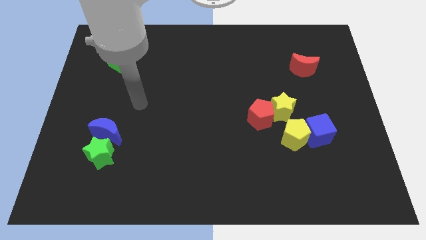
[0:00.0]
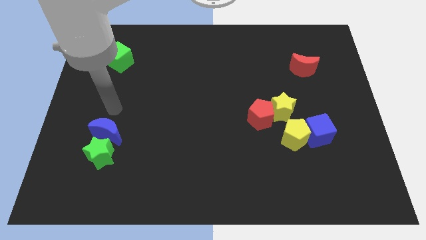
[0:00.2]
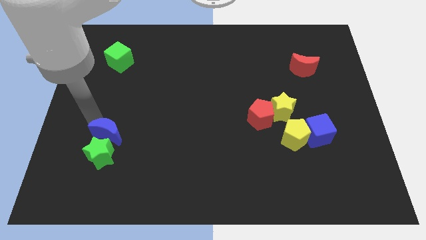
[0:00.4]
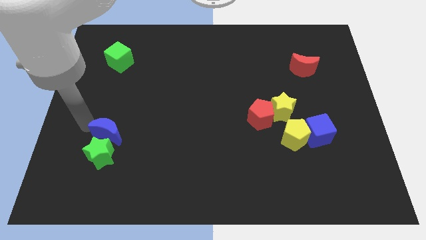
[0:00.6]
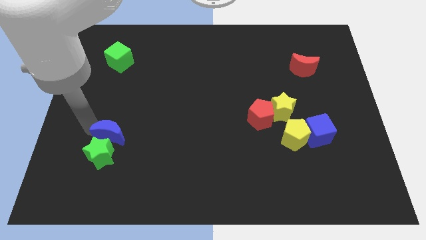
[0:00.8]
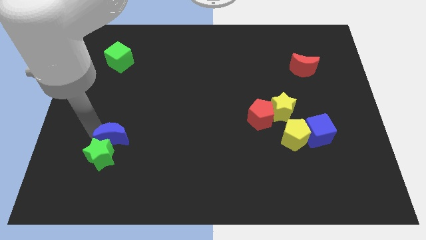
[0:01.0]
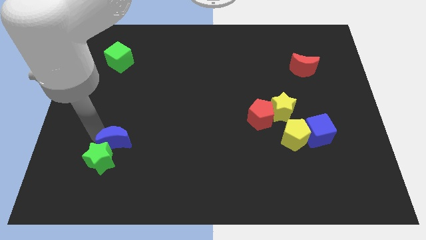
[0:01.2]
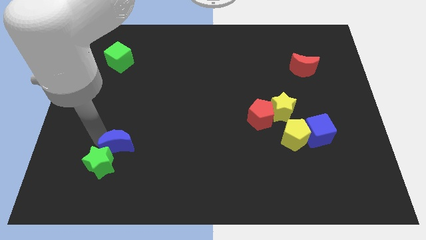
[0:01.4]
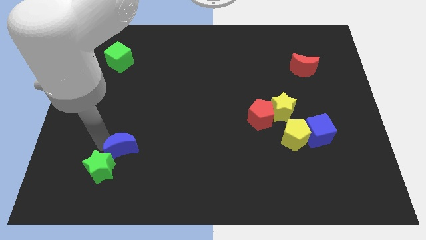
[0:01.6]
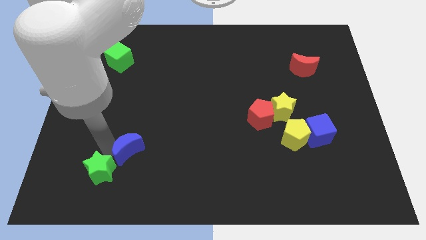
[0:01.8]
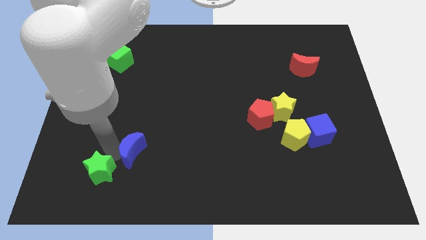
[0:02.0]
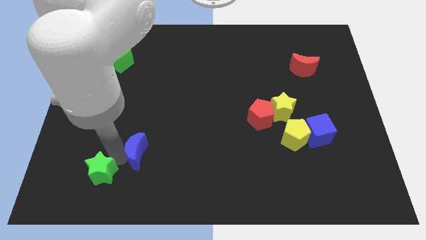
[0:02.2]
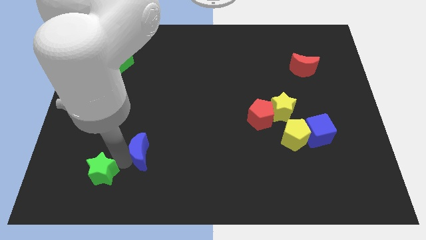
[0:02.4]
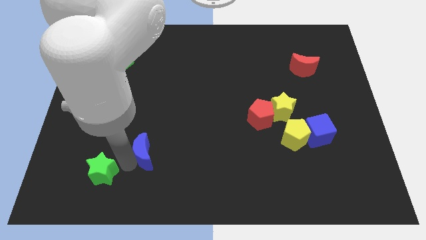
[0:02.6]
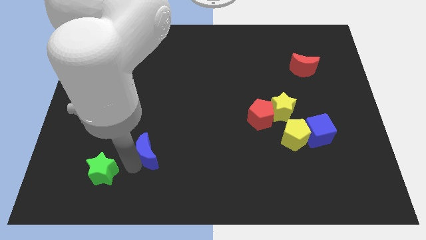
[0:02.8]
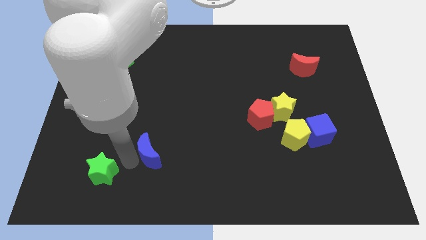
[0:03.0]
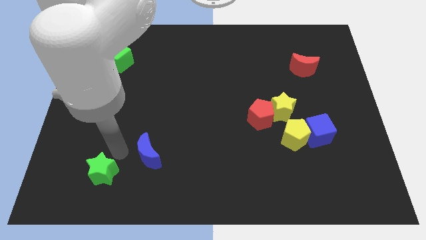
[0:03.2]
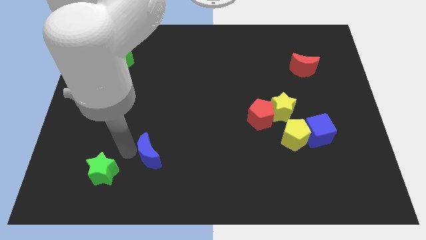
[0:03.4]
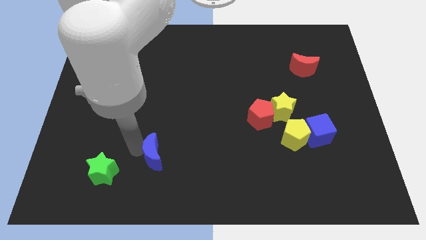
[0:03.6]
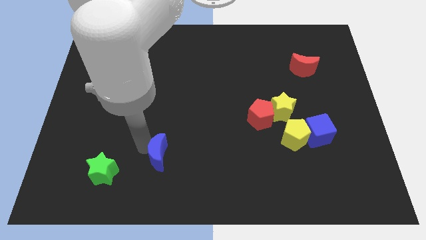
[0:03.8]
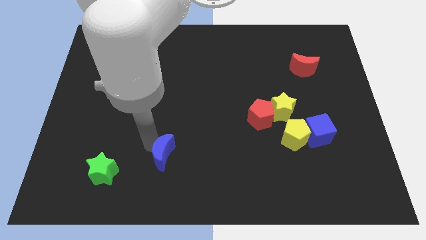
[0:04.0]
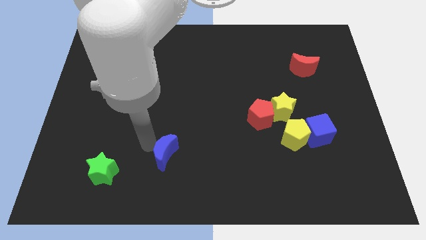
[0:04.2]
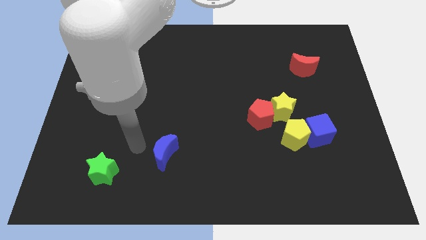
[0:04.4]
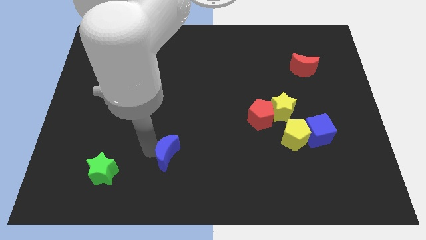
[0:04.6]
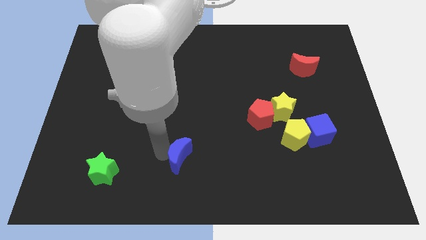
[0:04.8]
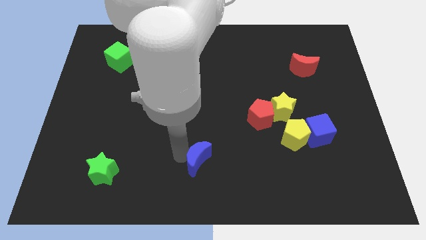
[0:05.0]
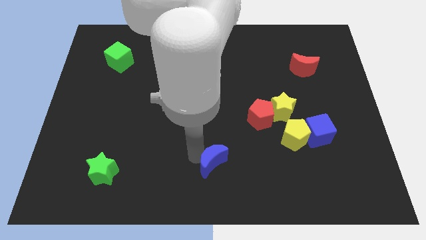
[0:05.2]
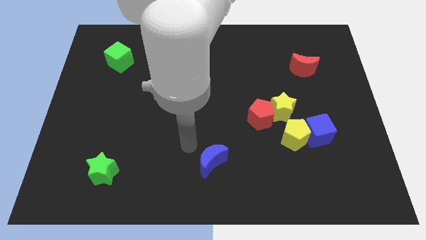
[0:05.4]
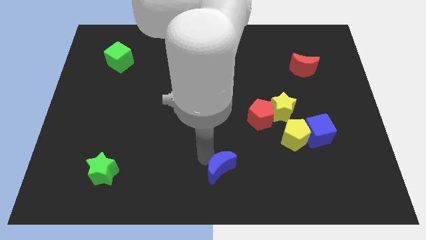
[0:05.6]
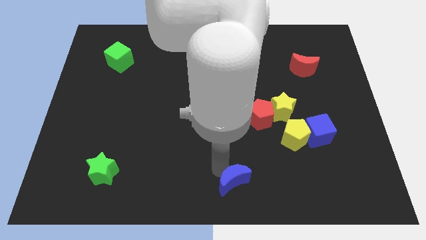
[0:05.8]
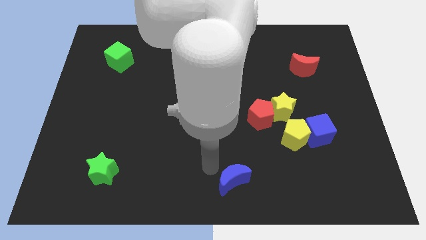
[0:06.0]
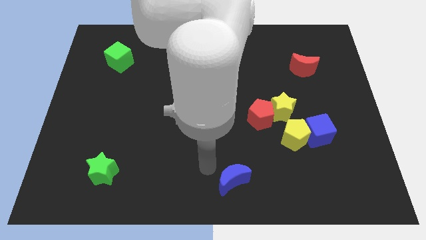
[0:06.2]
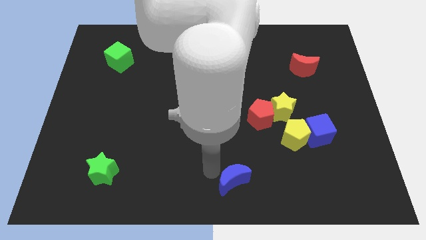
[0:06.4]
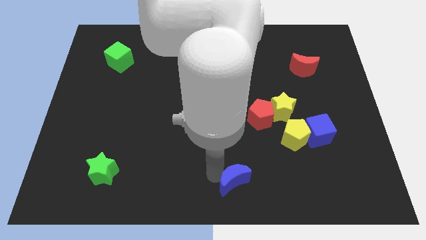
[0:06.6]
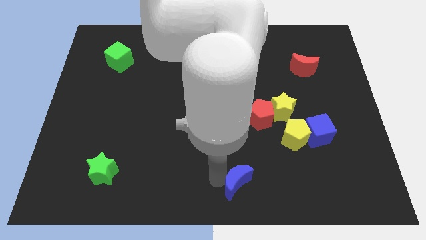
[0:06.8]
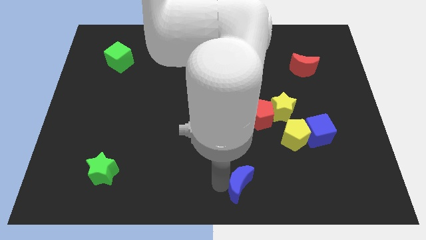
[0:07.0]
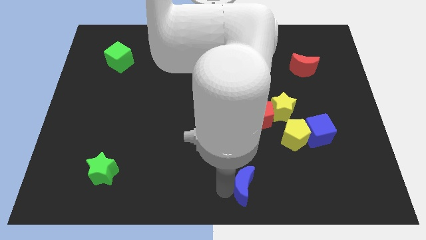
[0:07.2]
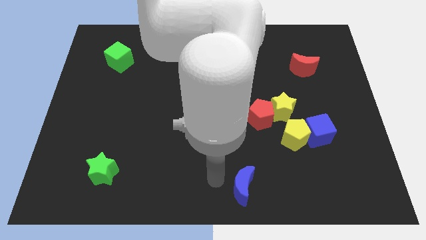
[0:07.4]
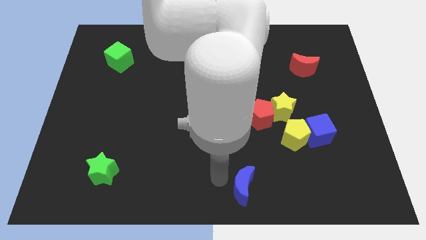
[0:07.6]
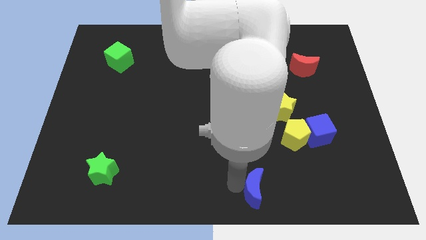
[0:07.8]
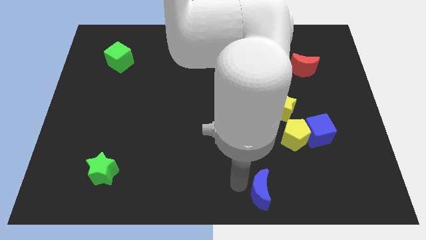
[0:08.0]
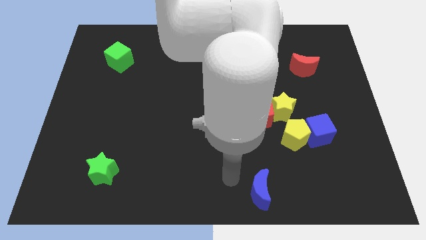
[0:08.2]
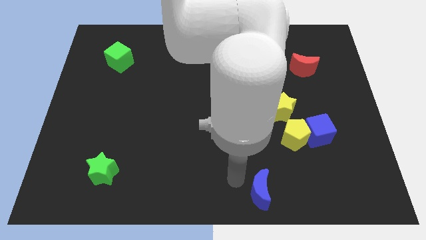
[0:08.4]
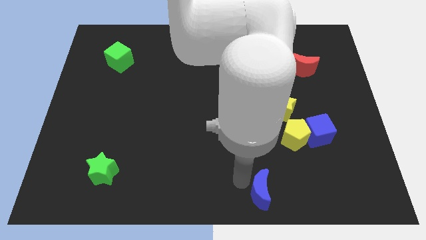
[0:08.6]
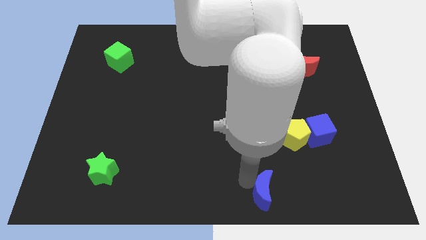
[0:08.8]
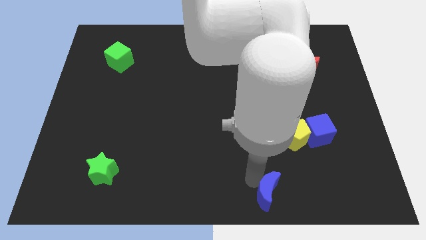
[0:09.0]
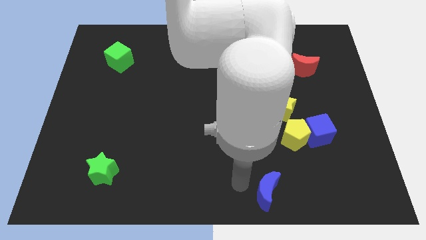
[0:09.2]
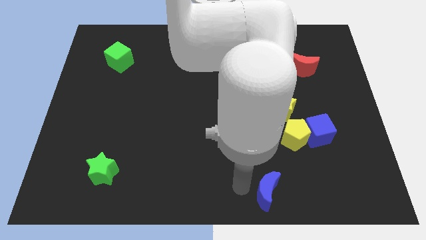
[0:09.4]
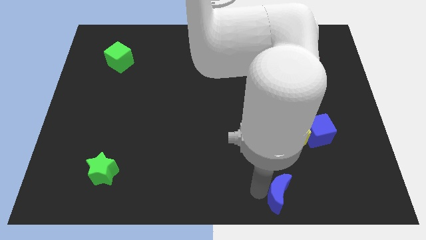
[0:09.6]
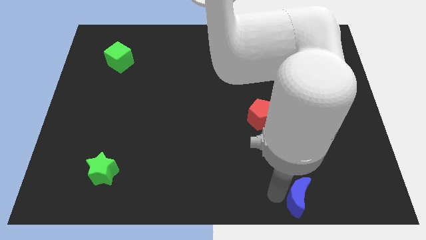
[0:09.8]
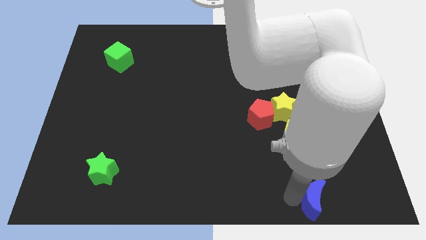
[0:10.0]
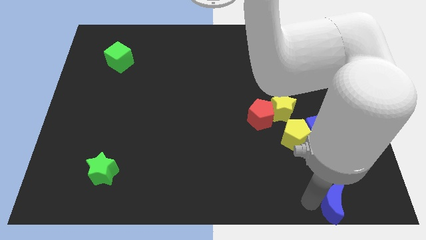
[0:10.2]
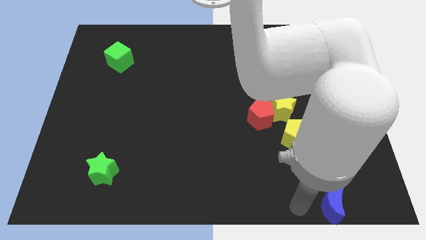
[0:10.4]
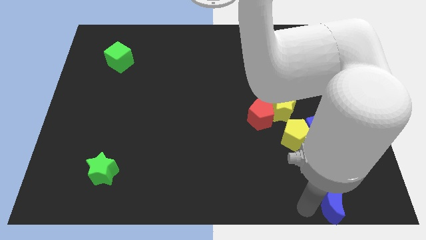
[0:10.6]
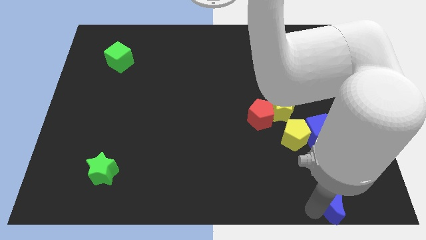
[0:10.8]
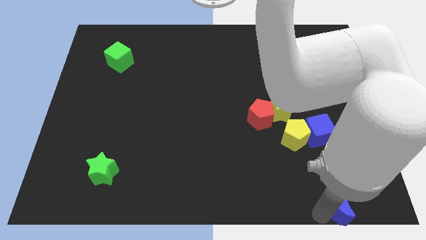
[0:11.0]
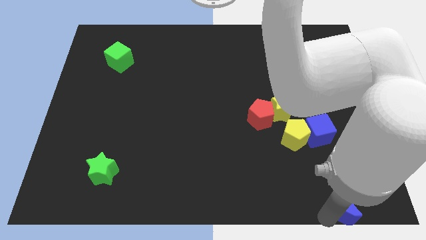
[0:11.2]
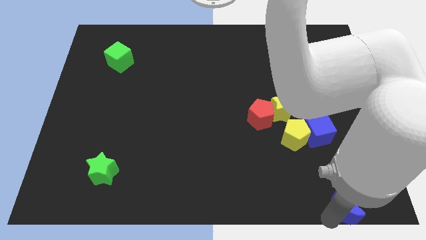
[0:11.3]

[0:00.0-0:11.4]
push the blue moon to the lower right corner

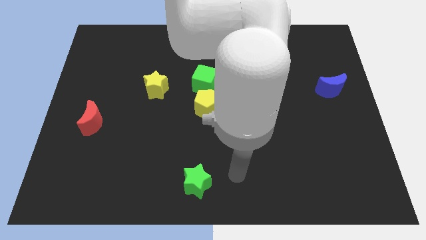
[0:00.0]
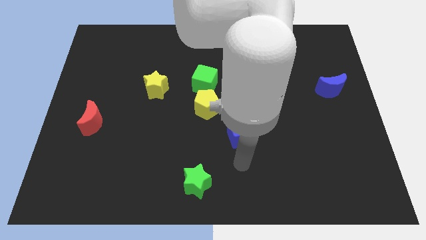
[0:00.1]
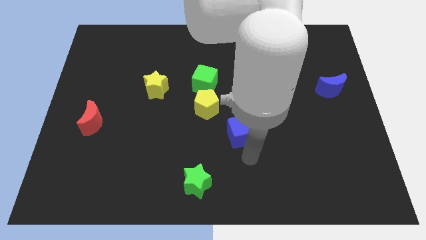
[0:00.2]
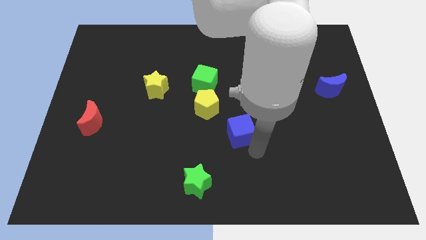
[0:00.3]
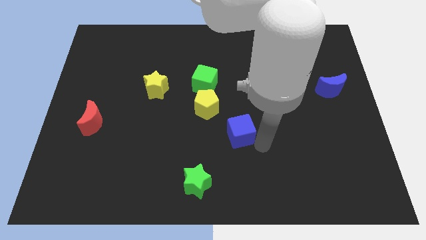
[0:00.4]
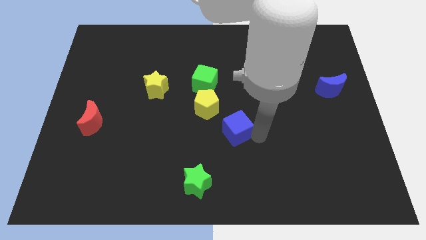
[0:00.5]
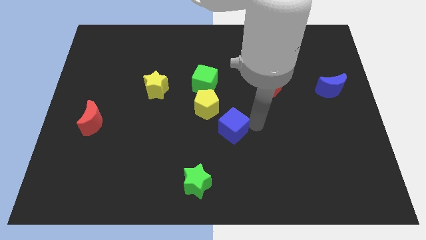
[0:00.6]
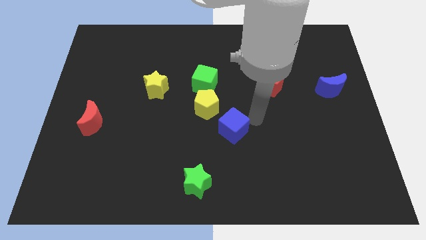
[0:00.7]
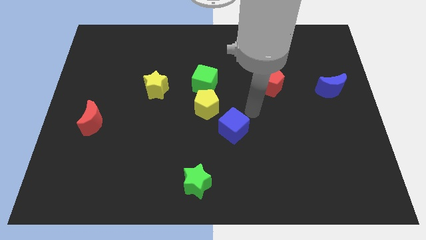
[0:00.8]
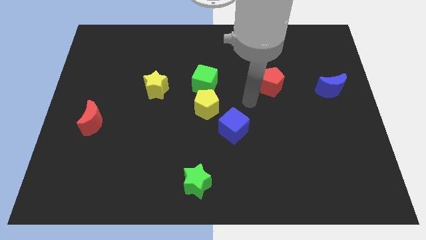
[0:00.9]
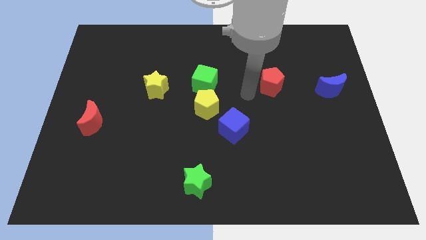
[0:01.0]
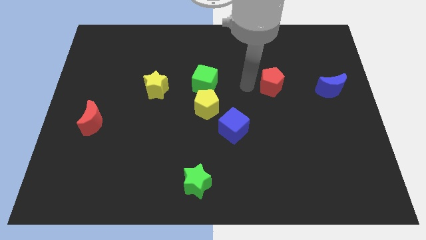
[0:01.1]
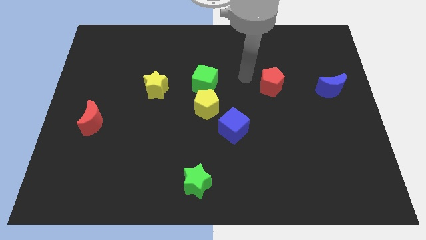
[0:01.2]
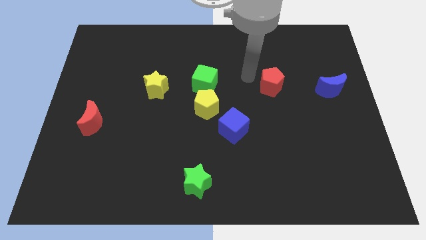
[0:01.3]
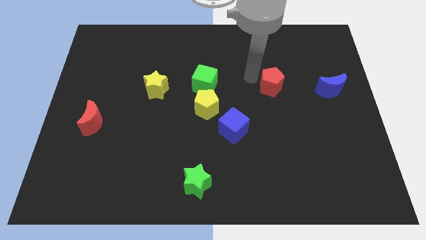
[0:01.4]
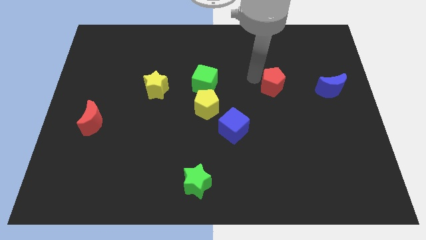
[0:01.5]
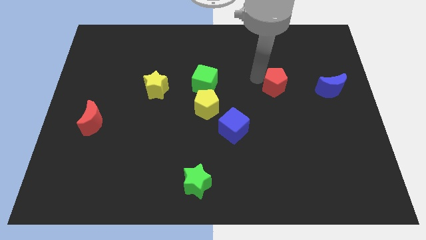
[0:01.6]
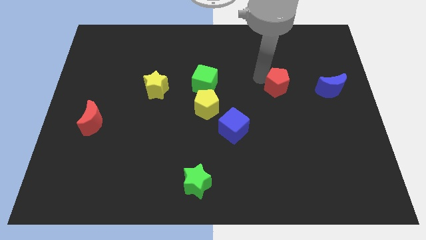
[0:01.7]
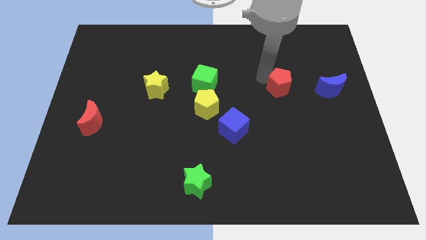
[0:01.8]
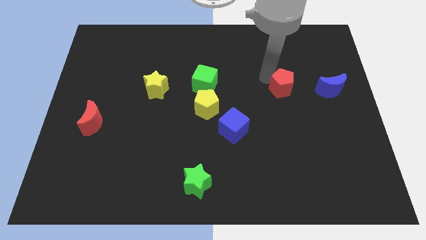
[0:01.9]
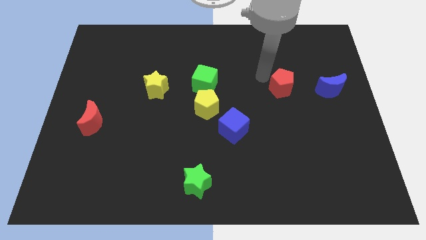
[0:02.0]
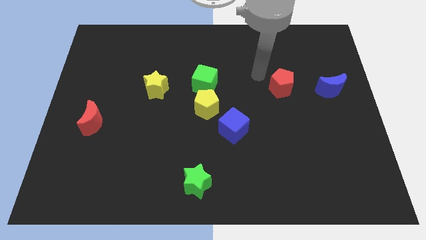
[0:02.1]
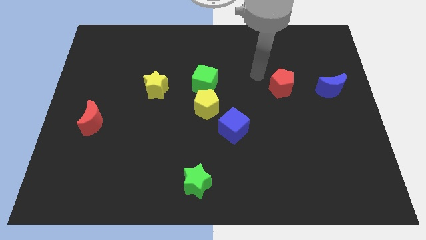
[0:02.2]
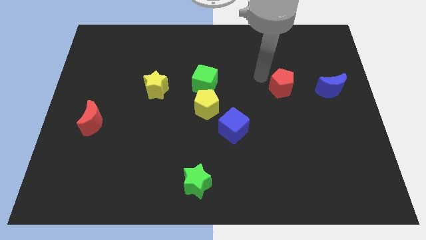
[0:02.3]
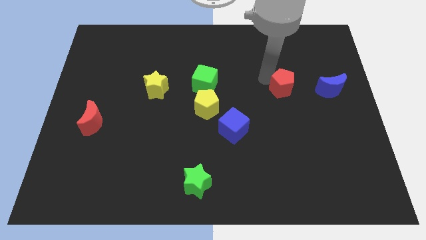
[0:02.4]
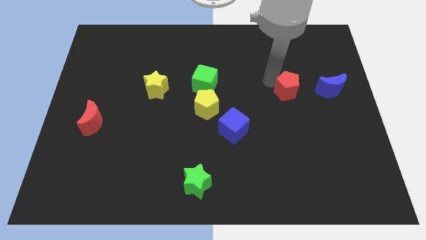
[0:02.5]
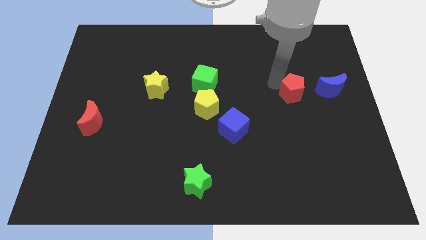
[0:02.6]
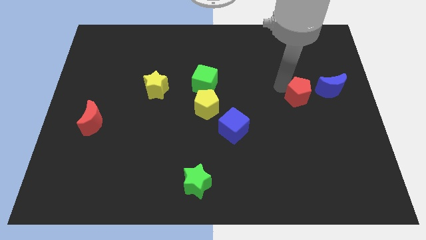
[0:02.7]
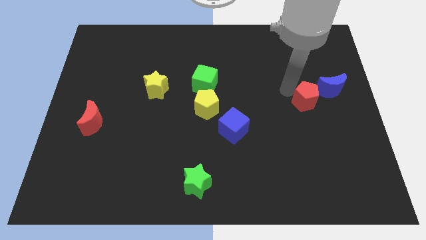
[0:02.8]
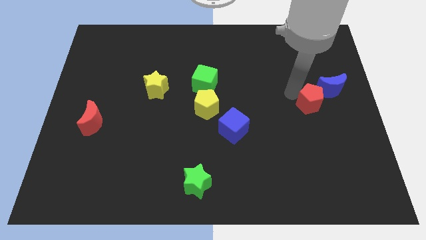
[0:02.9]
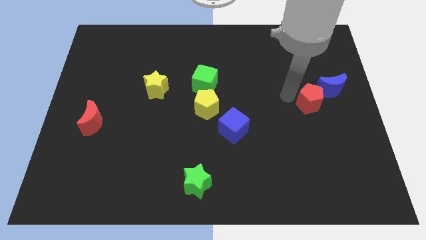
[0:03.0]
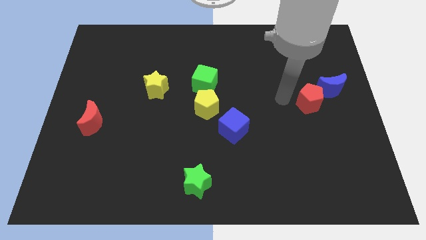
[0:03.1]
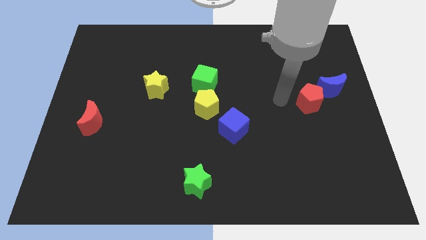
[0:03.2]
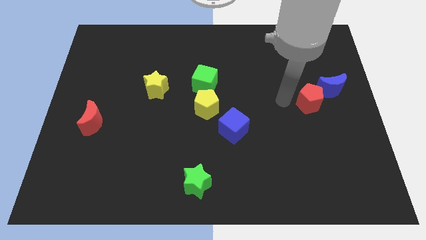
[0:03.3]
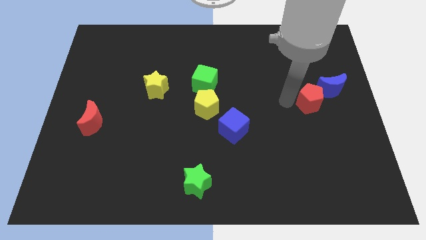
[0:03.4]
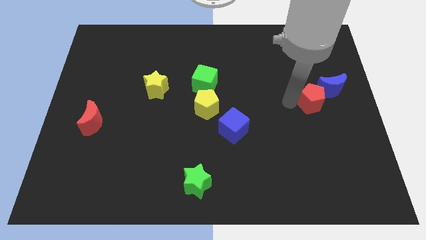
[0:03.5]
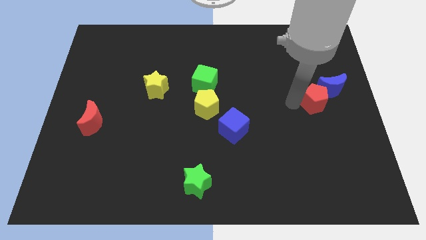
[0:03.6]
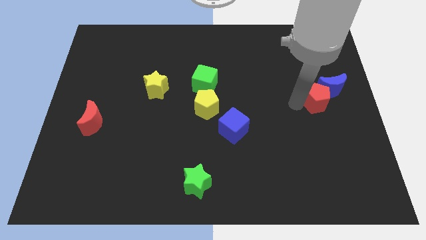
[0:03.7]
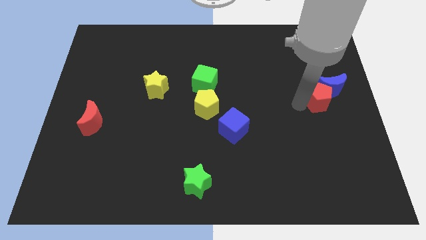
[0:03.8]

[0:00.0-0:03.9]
put the red pentagon to the right side of the board
